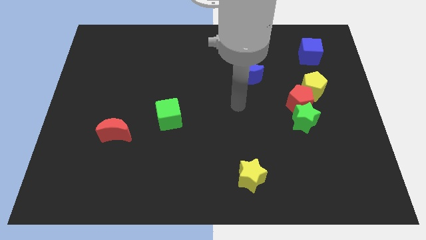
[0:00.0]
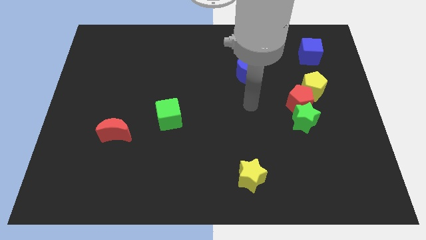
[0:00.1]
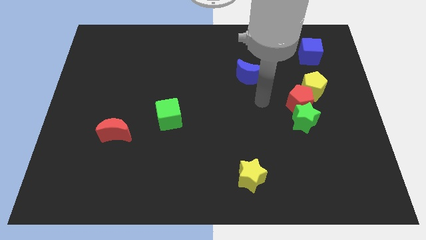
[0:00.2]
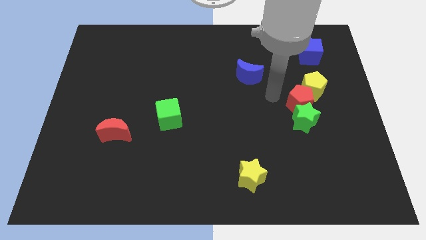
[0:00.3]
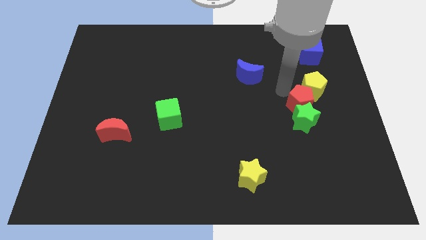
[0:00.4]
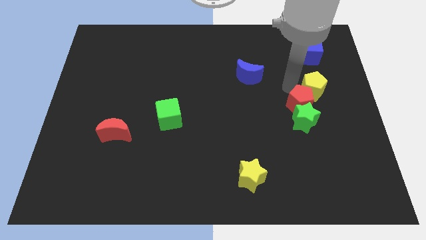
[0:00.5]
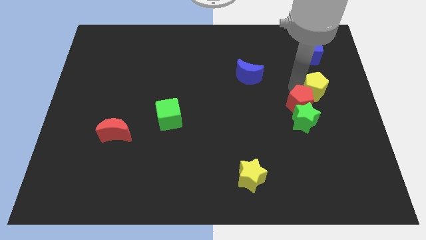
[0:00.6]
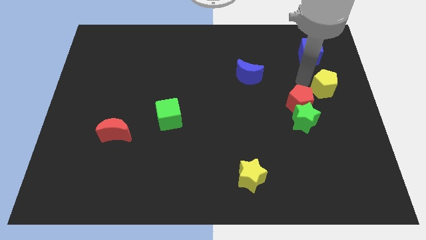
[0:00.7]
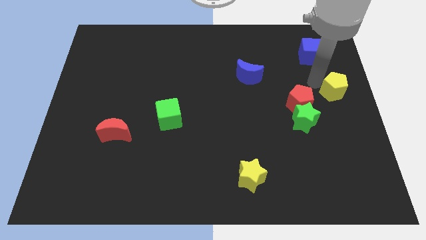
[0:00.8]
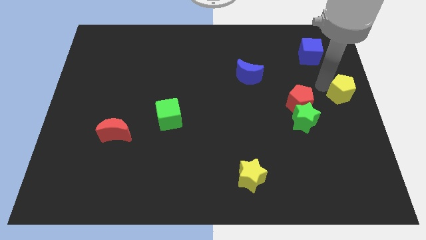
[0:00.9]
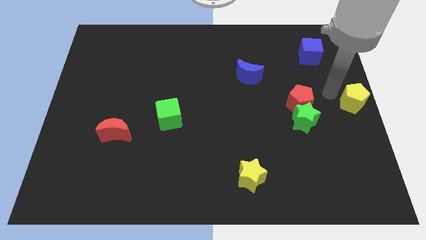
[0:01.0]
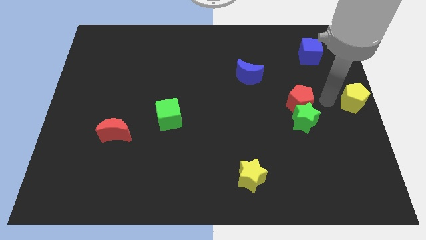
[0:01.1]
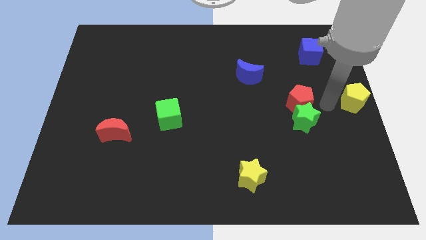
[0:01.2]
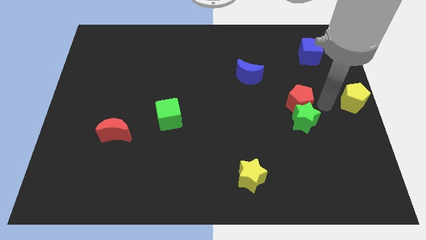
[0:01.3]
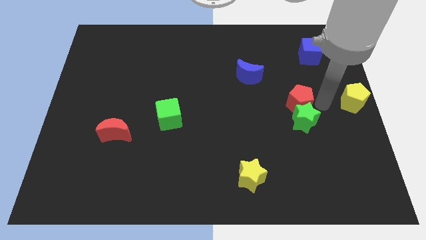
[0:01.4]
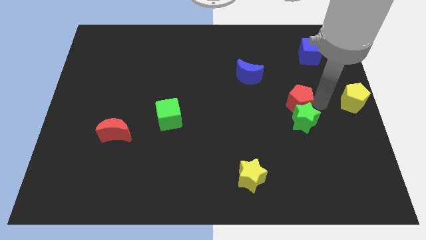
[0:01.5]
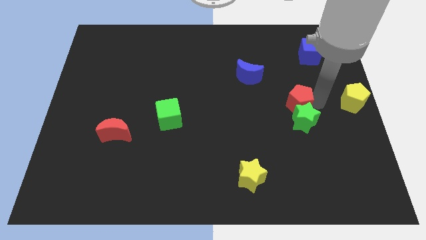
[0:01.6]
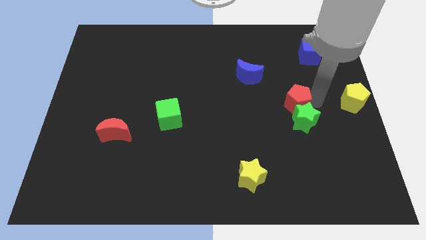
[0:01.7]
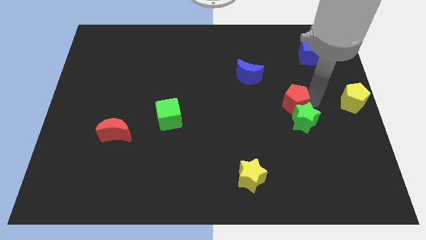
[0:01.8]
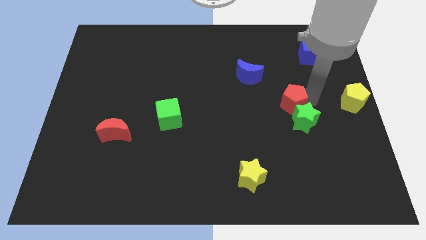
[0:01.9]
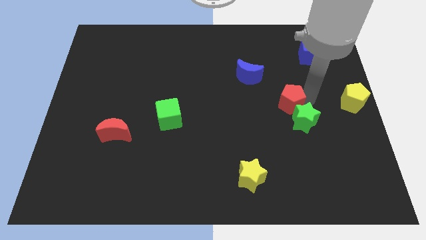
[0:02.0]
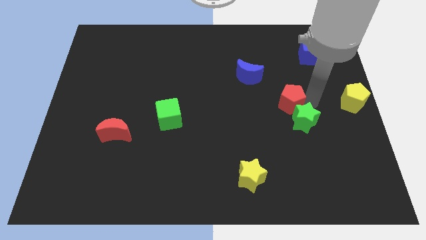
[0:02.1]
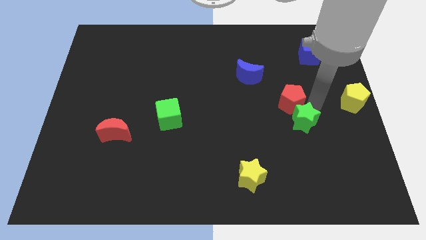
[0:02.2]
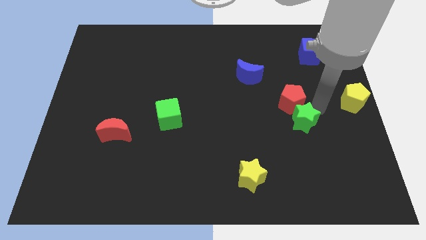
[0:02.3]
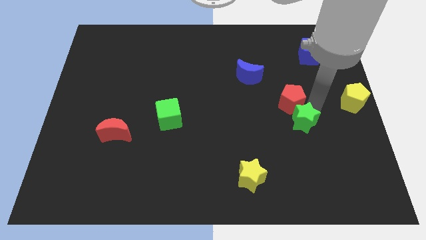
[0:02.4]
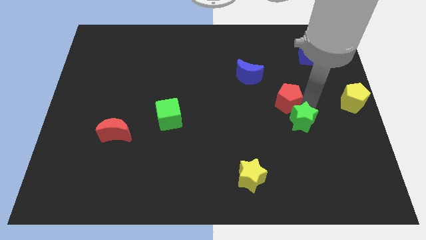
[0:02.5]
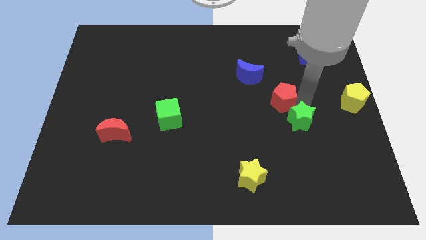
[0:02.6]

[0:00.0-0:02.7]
move the red pentagon away from the yellow pentagon and green star

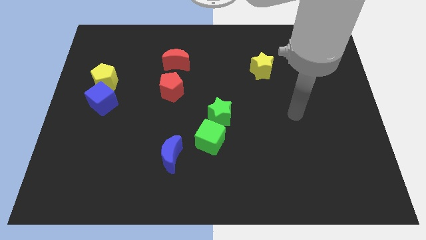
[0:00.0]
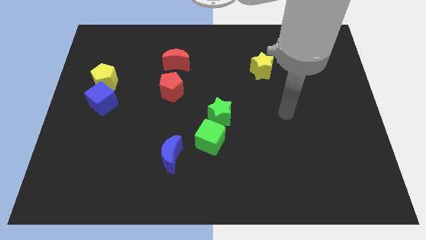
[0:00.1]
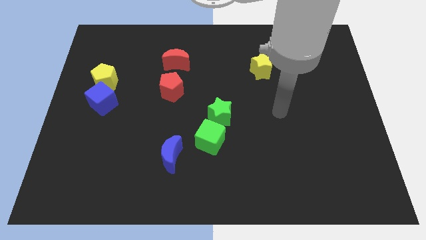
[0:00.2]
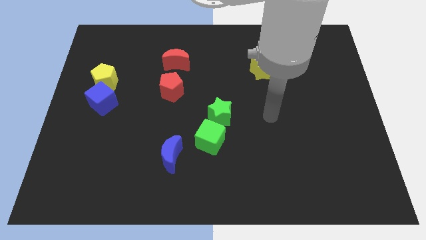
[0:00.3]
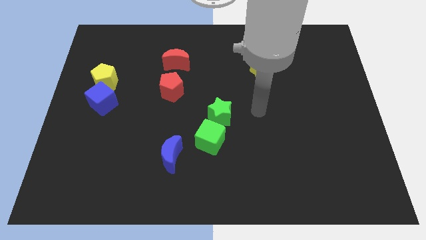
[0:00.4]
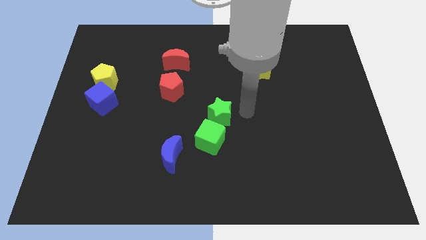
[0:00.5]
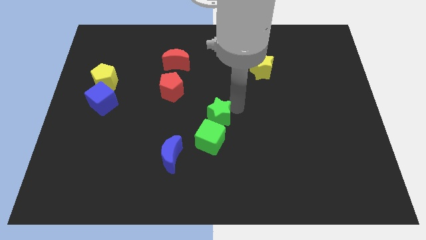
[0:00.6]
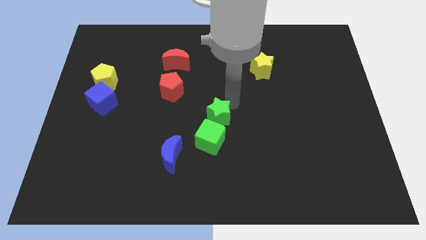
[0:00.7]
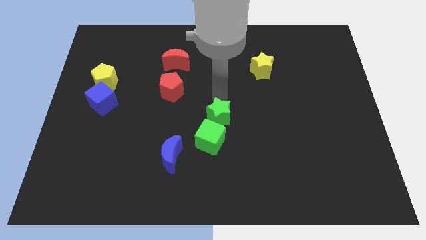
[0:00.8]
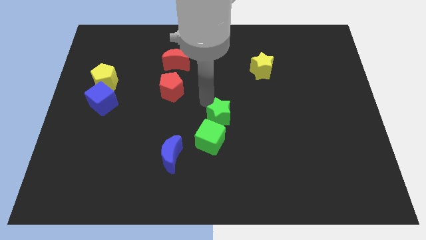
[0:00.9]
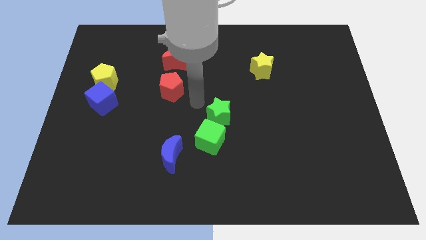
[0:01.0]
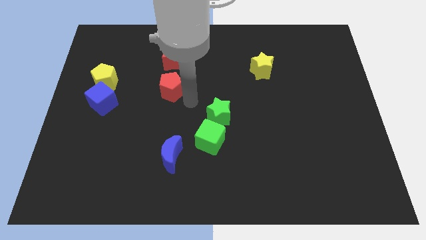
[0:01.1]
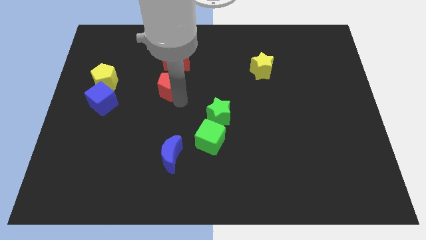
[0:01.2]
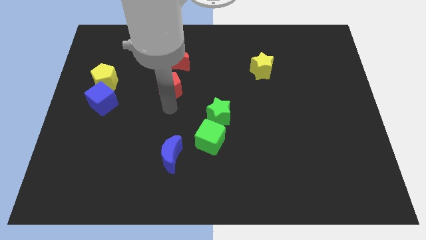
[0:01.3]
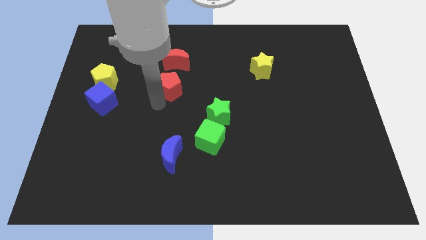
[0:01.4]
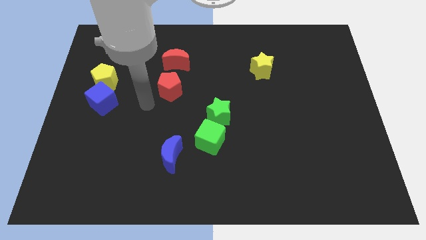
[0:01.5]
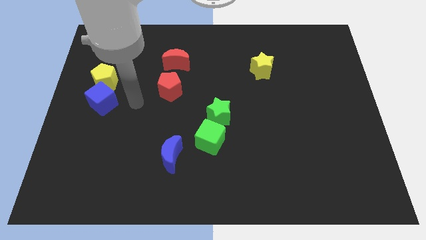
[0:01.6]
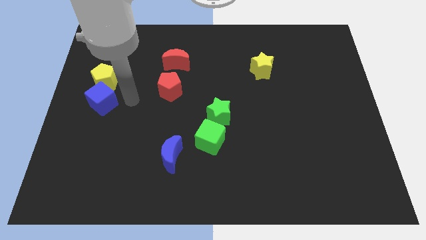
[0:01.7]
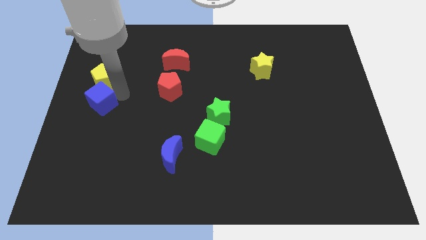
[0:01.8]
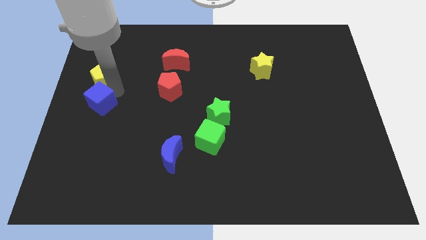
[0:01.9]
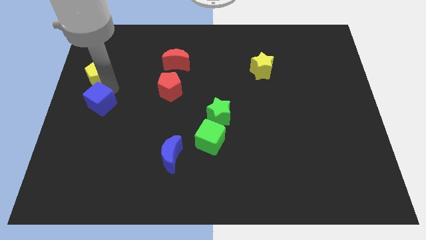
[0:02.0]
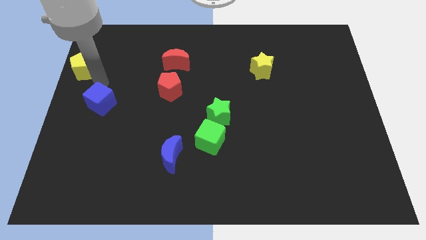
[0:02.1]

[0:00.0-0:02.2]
separate the blue cube from the yellow pentagon

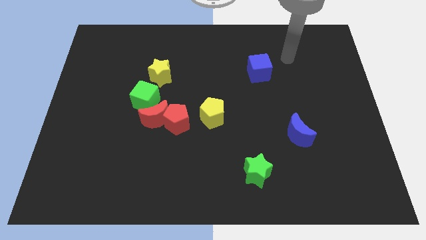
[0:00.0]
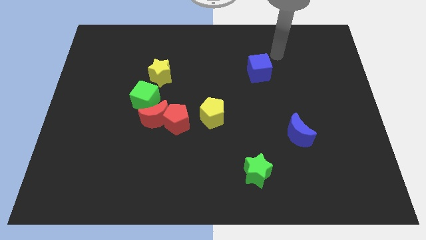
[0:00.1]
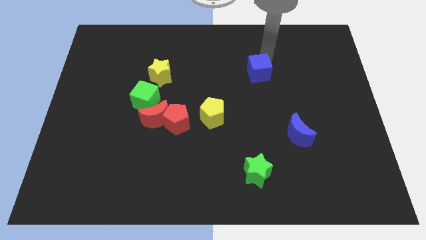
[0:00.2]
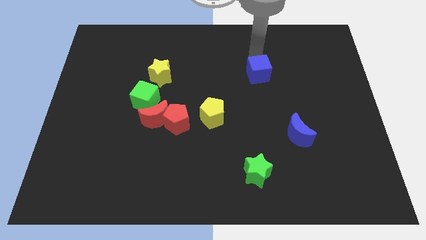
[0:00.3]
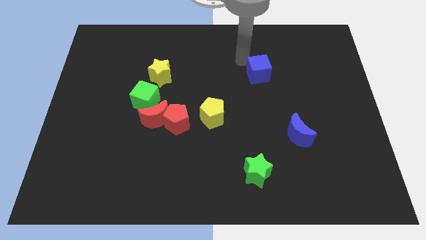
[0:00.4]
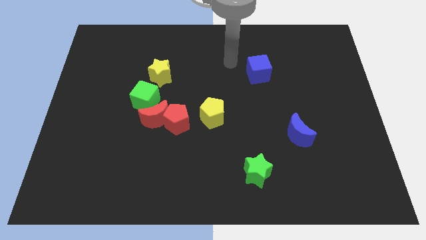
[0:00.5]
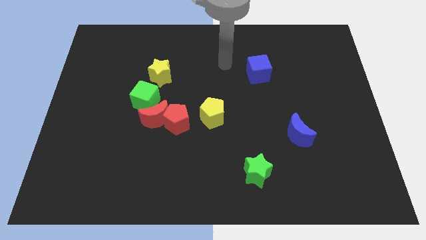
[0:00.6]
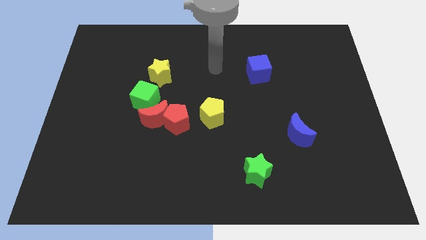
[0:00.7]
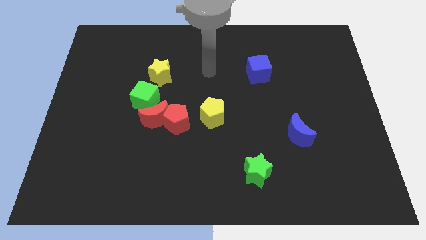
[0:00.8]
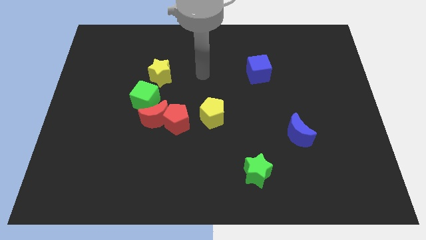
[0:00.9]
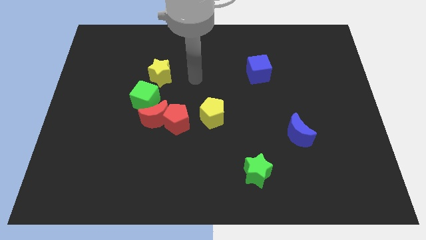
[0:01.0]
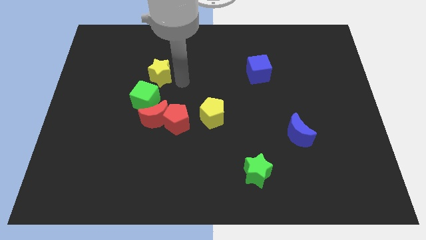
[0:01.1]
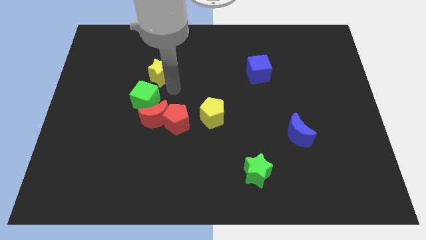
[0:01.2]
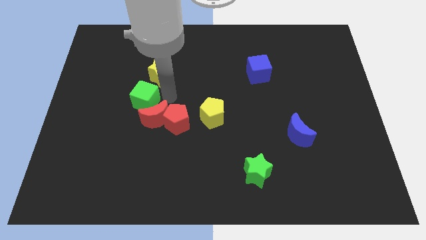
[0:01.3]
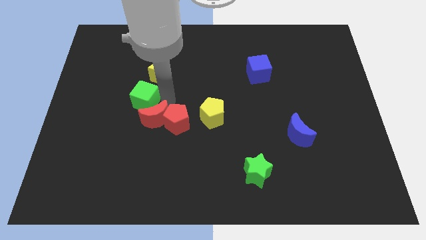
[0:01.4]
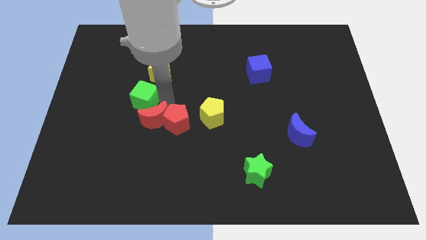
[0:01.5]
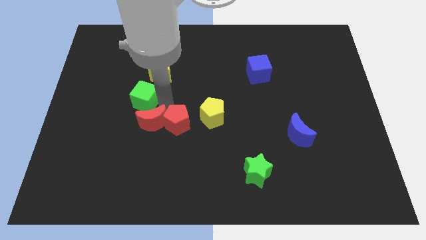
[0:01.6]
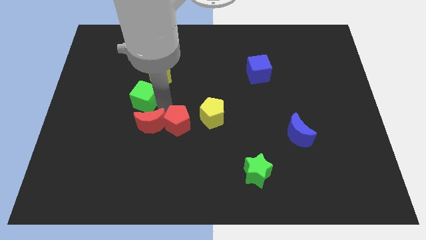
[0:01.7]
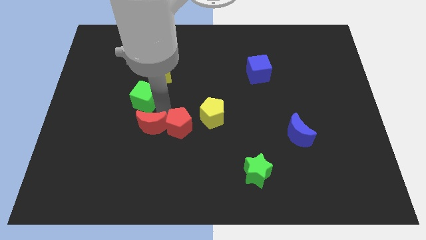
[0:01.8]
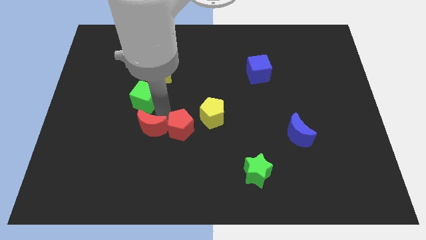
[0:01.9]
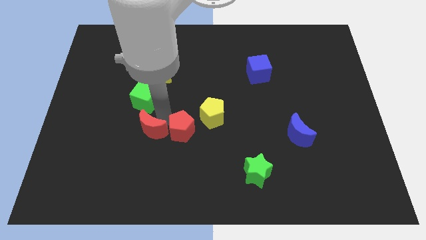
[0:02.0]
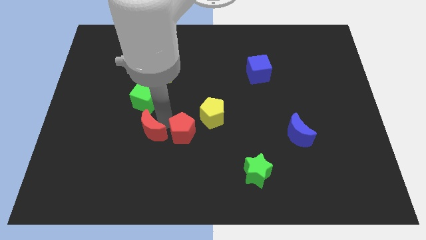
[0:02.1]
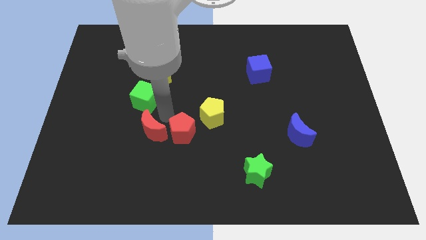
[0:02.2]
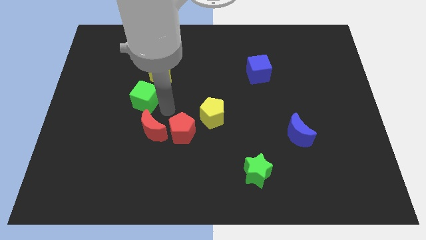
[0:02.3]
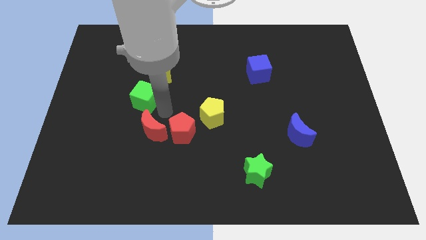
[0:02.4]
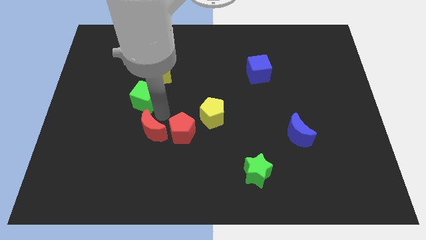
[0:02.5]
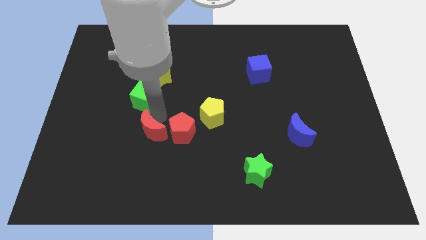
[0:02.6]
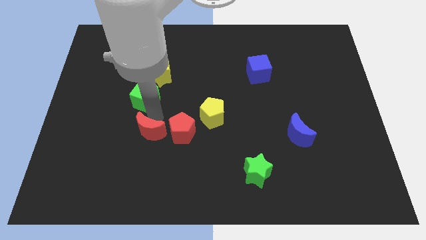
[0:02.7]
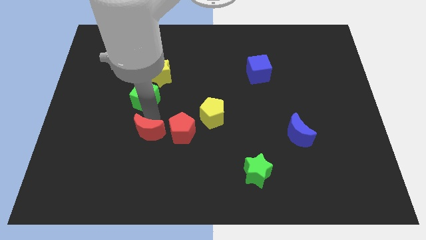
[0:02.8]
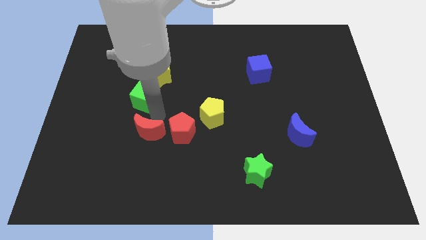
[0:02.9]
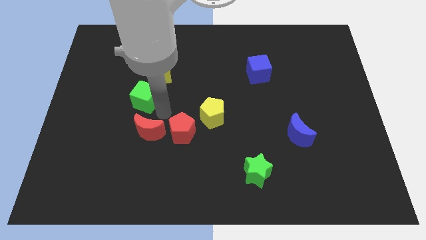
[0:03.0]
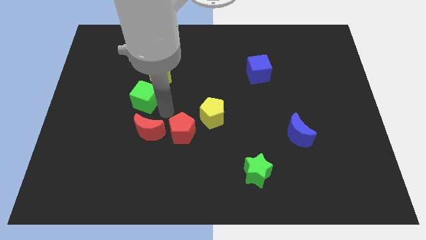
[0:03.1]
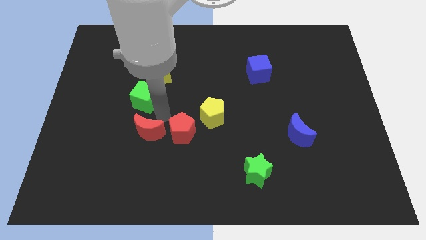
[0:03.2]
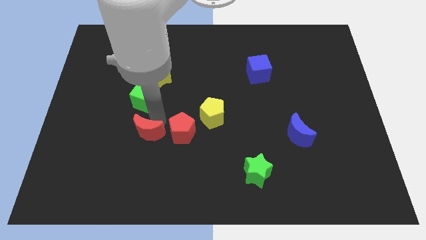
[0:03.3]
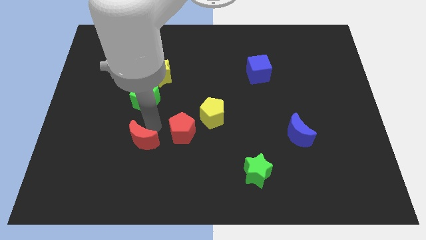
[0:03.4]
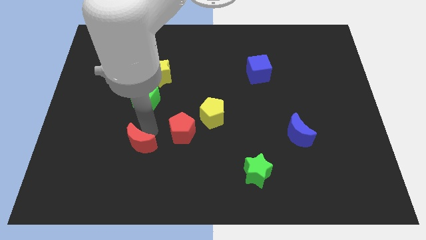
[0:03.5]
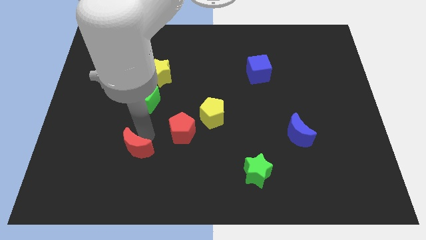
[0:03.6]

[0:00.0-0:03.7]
separate the red moon from the red pentagon and green cube

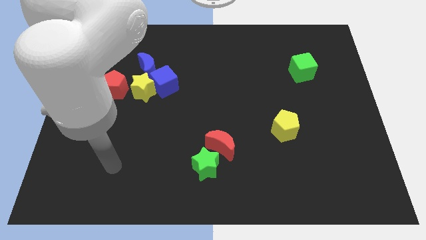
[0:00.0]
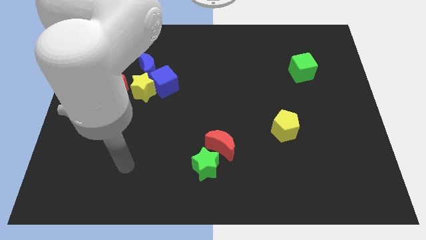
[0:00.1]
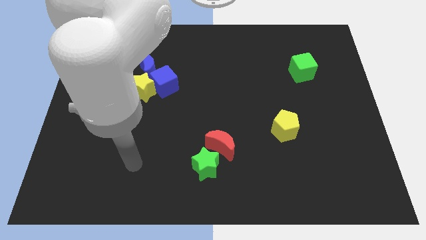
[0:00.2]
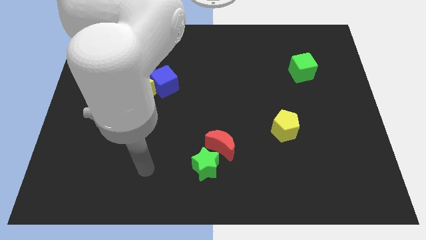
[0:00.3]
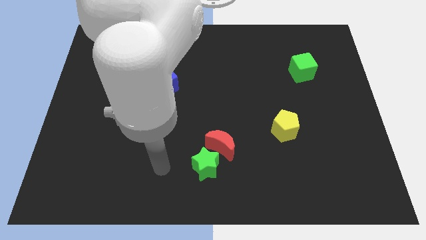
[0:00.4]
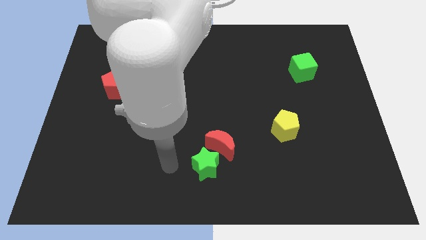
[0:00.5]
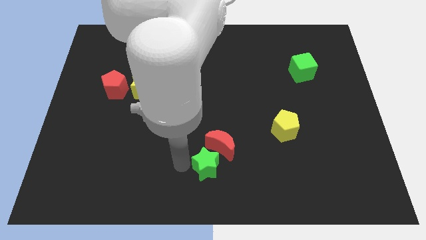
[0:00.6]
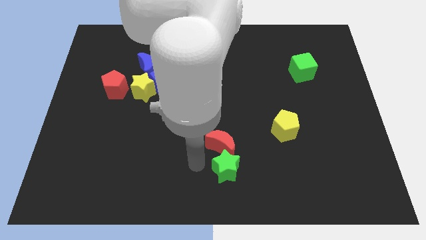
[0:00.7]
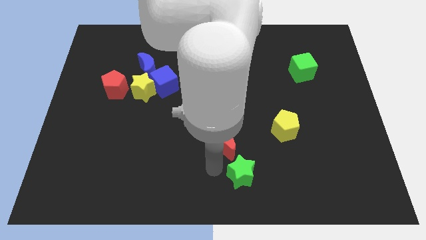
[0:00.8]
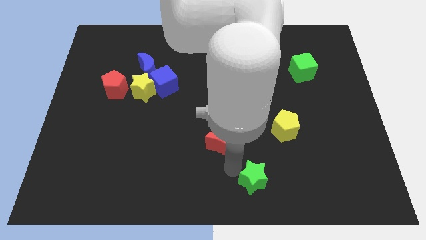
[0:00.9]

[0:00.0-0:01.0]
pull the red moon apart from the green star
